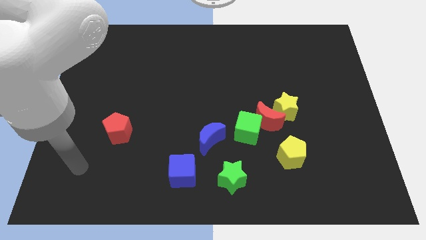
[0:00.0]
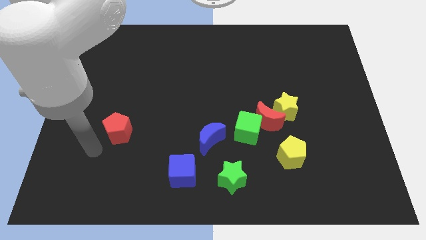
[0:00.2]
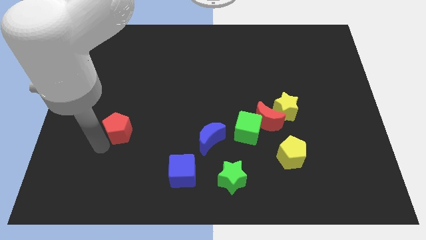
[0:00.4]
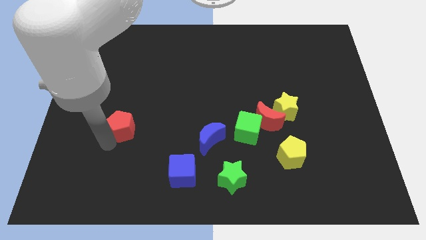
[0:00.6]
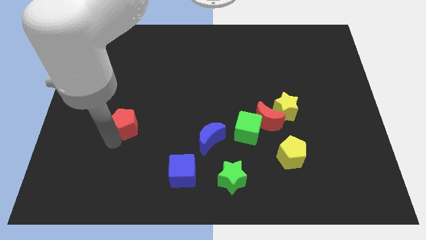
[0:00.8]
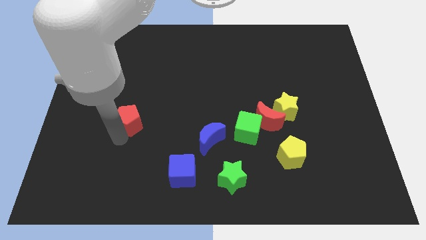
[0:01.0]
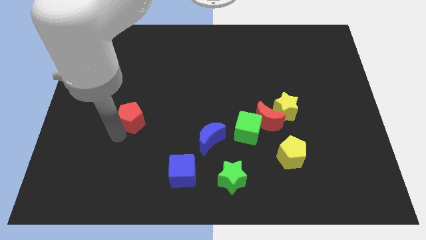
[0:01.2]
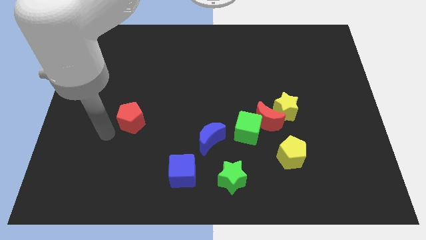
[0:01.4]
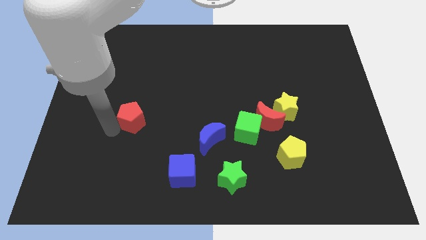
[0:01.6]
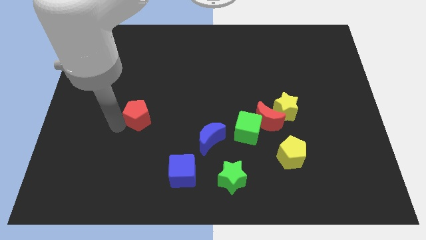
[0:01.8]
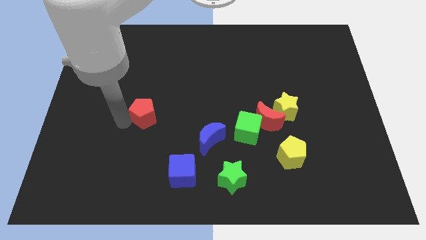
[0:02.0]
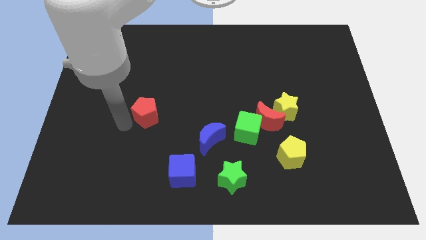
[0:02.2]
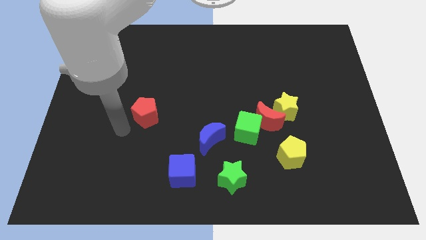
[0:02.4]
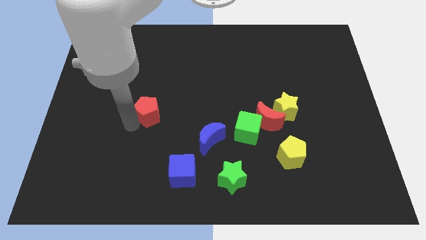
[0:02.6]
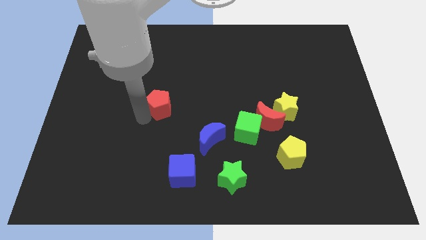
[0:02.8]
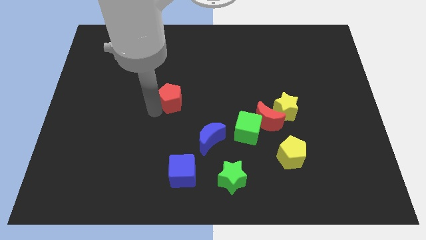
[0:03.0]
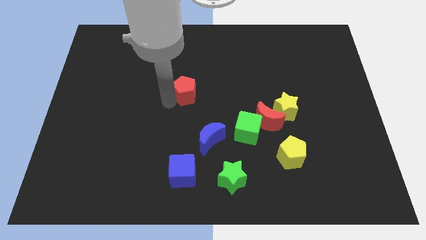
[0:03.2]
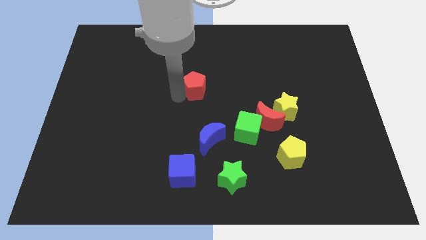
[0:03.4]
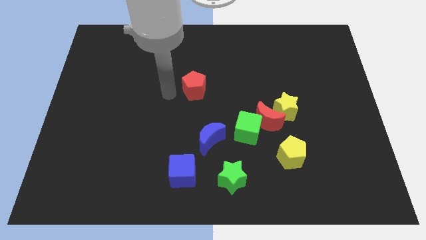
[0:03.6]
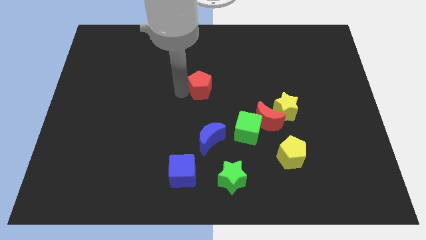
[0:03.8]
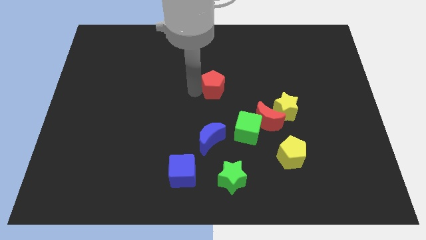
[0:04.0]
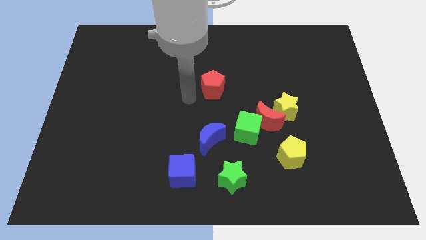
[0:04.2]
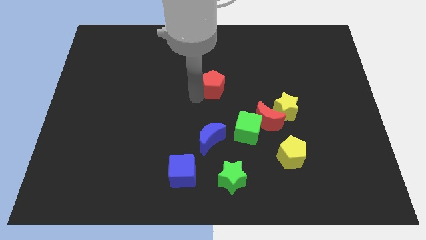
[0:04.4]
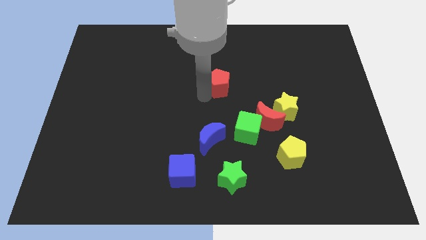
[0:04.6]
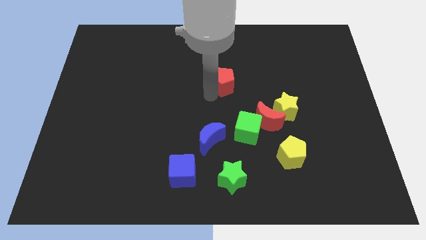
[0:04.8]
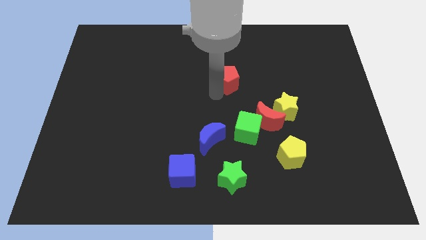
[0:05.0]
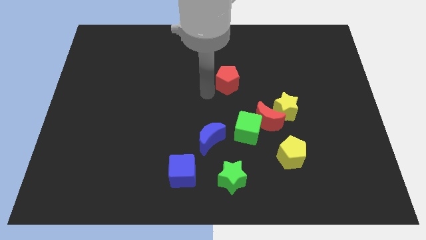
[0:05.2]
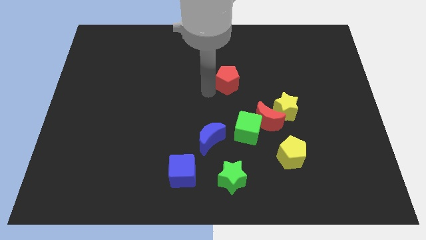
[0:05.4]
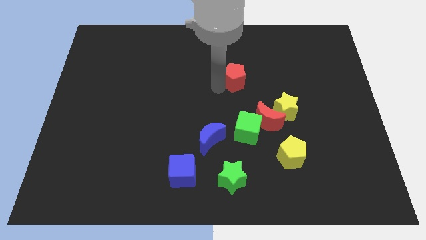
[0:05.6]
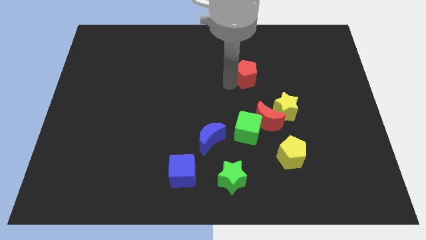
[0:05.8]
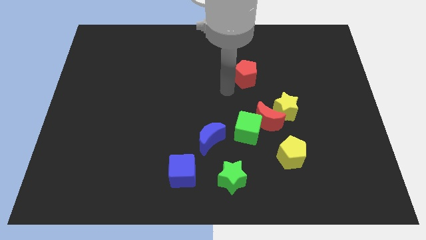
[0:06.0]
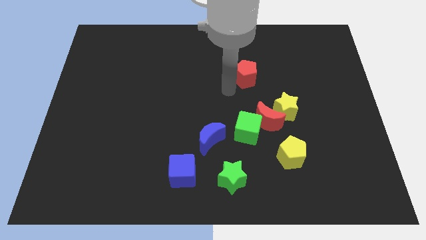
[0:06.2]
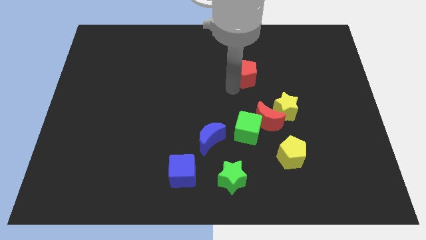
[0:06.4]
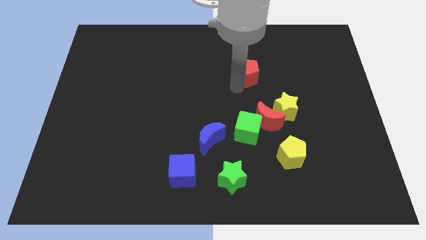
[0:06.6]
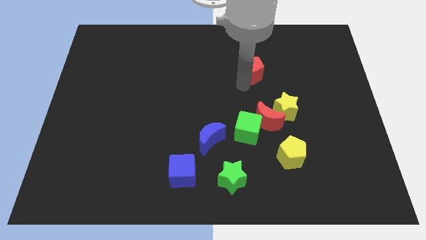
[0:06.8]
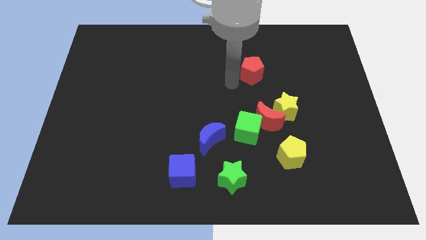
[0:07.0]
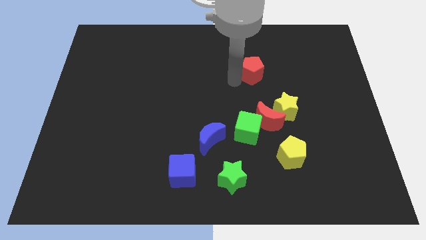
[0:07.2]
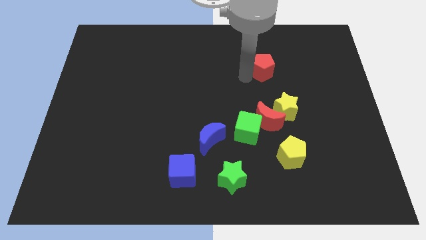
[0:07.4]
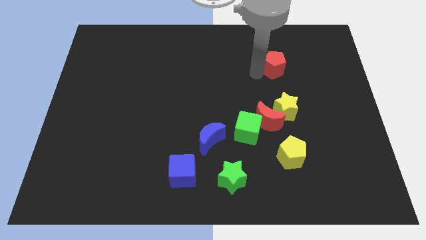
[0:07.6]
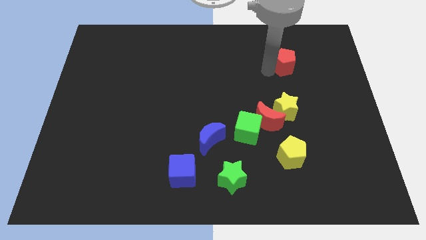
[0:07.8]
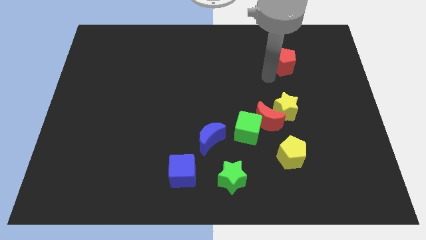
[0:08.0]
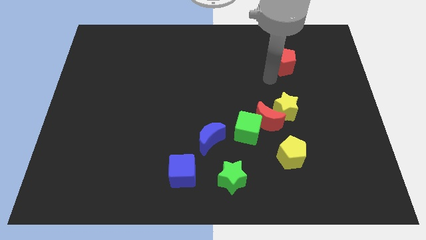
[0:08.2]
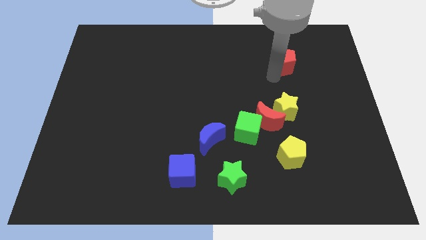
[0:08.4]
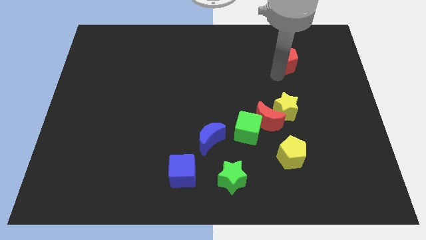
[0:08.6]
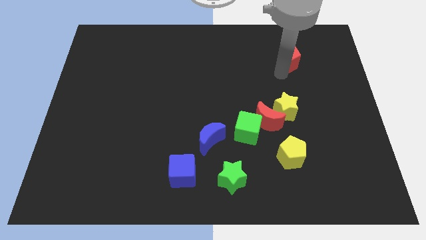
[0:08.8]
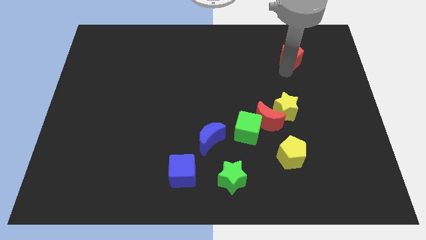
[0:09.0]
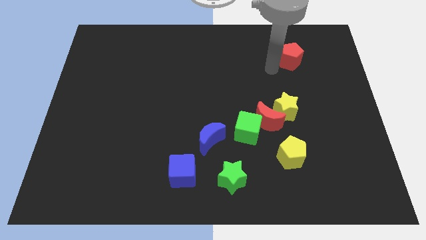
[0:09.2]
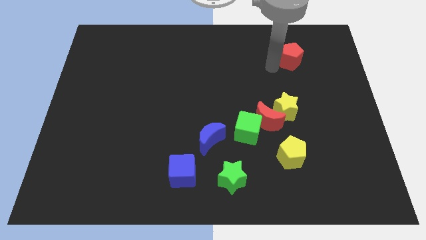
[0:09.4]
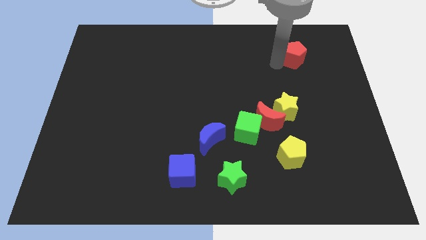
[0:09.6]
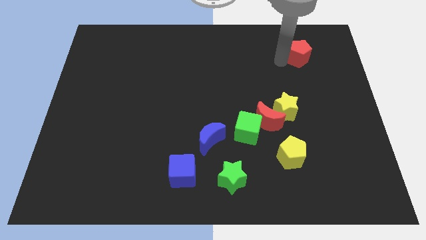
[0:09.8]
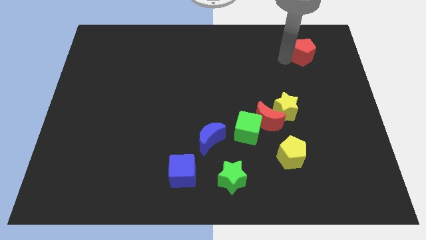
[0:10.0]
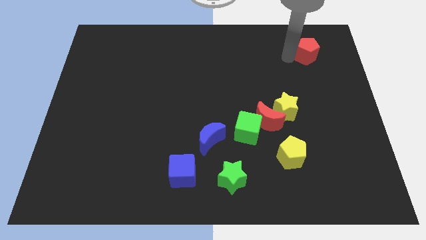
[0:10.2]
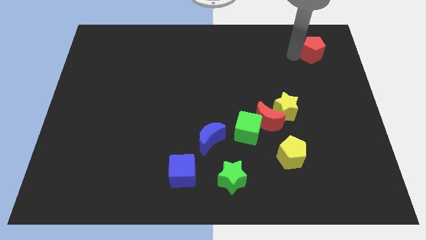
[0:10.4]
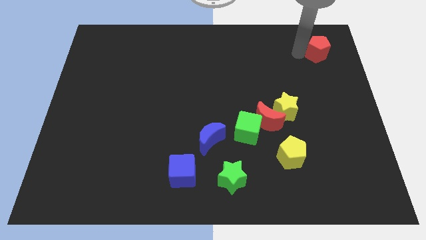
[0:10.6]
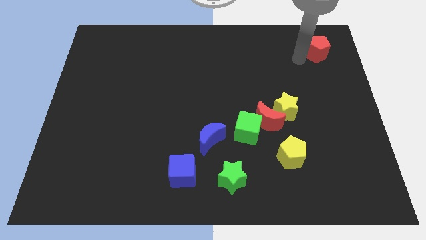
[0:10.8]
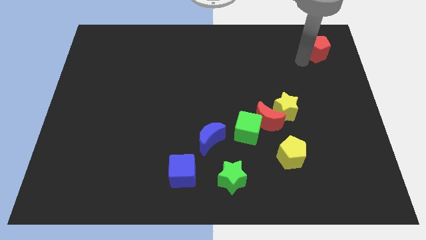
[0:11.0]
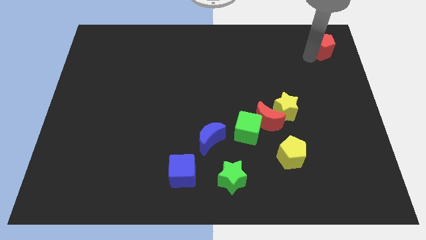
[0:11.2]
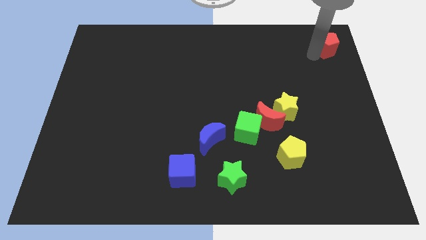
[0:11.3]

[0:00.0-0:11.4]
push the red pentagon to the top right of the board

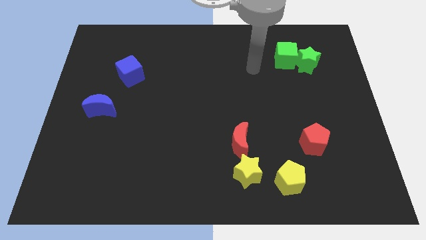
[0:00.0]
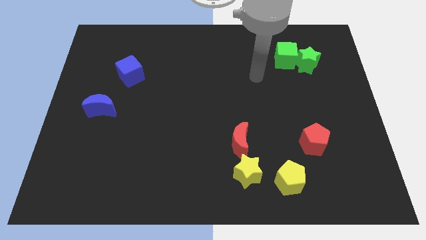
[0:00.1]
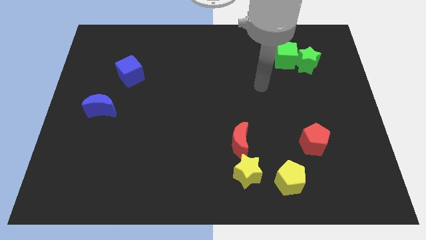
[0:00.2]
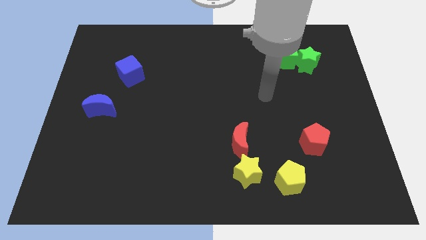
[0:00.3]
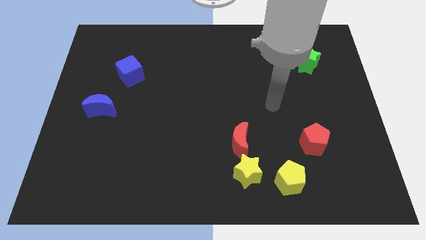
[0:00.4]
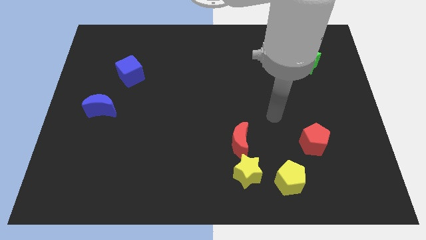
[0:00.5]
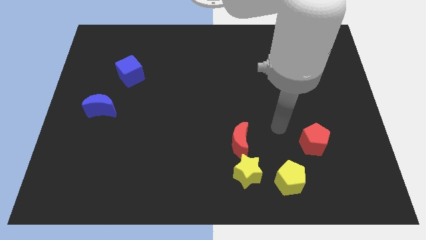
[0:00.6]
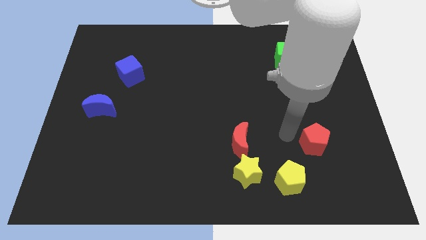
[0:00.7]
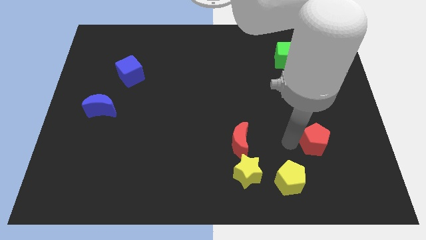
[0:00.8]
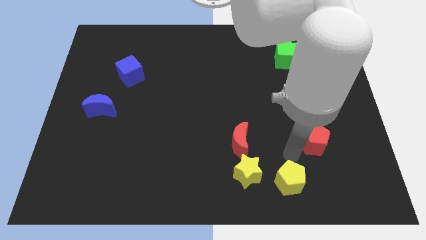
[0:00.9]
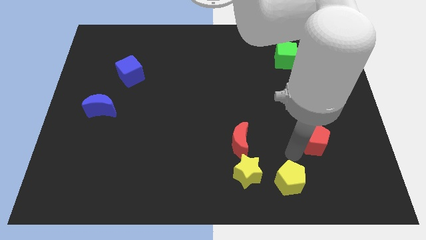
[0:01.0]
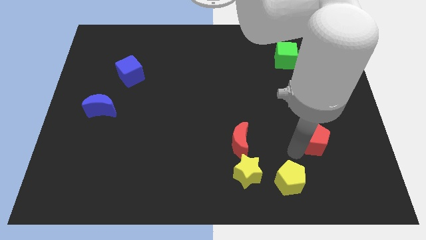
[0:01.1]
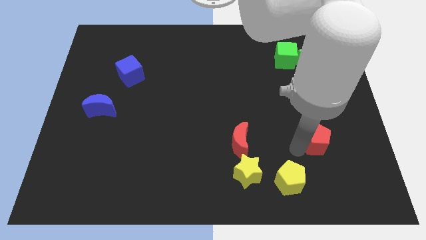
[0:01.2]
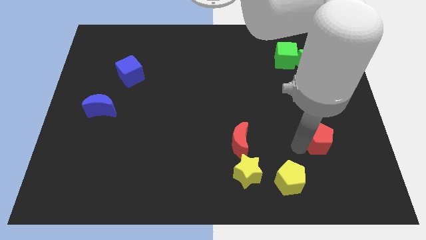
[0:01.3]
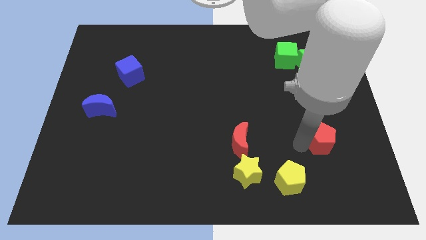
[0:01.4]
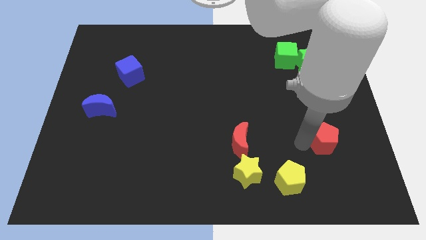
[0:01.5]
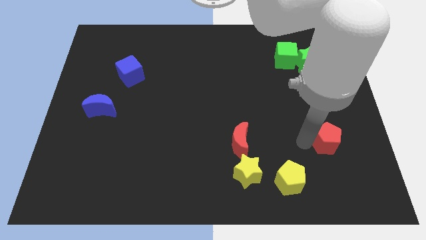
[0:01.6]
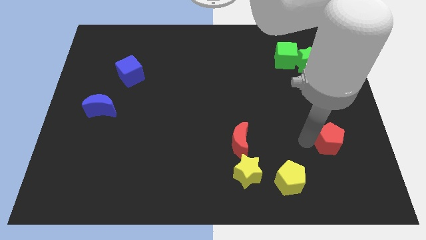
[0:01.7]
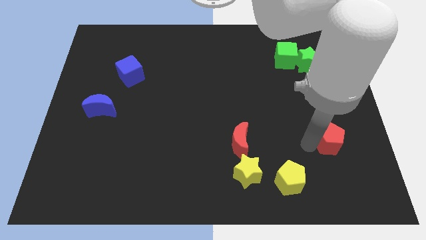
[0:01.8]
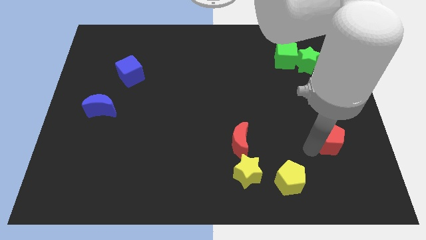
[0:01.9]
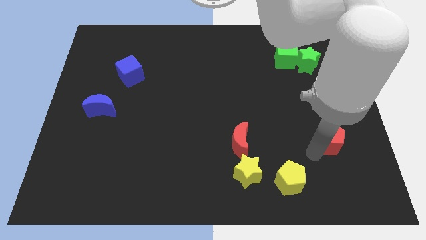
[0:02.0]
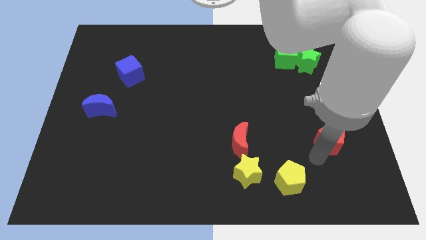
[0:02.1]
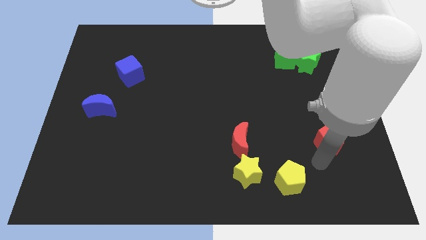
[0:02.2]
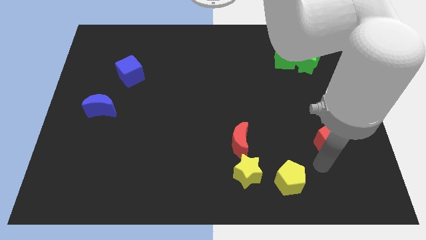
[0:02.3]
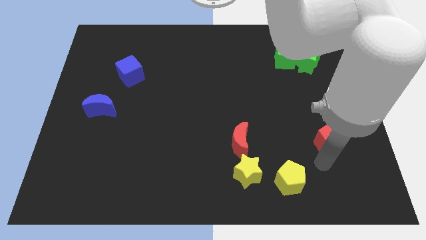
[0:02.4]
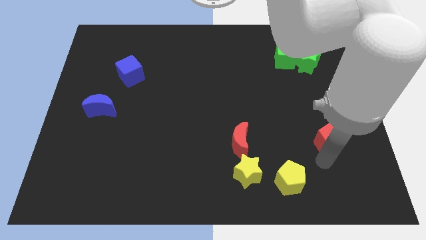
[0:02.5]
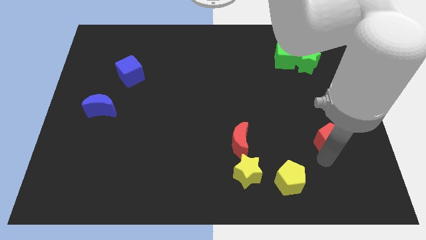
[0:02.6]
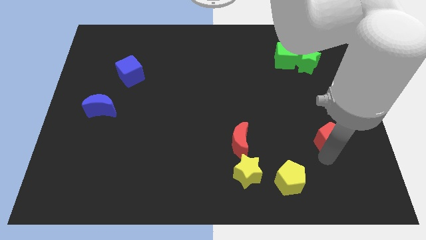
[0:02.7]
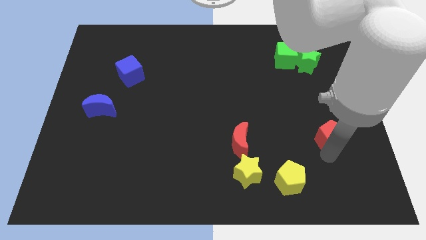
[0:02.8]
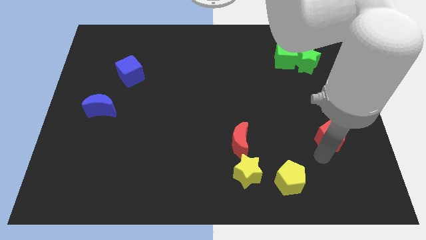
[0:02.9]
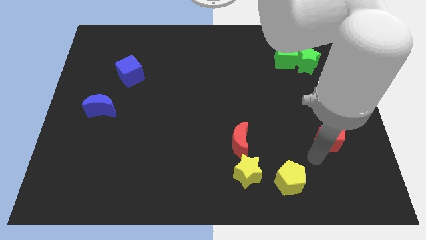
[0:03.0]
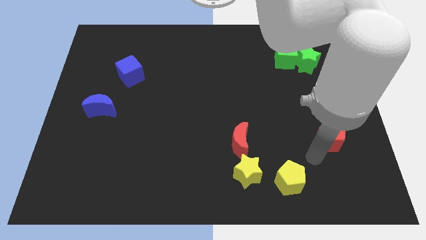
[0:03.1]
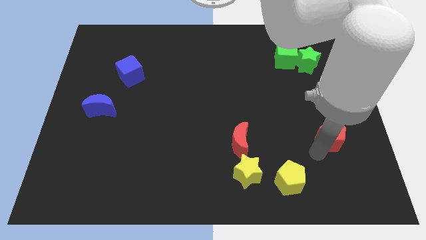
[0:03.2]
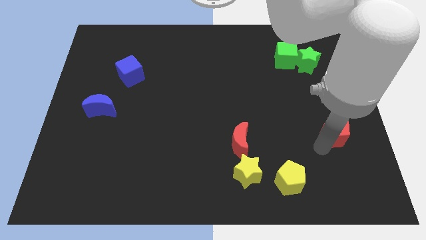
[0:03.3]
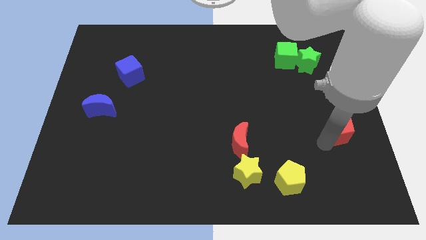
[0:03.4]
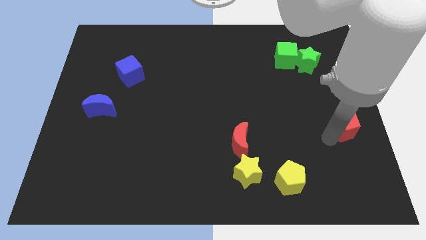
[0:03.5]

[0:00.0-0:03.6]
slide the red pentagon to the right side of the board
